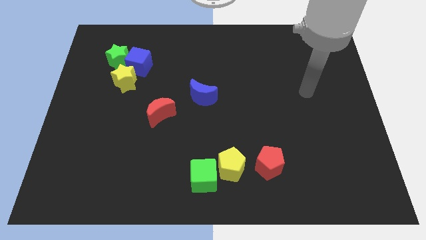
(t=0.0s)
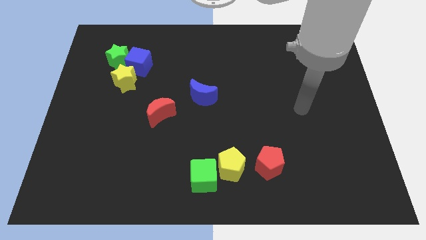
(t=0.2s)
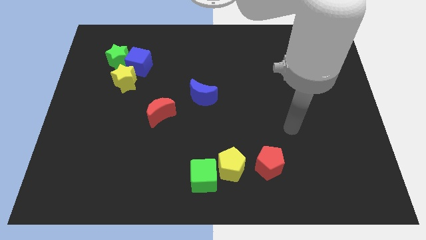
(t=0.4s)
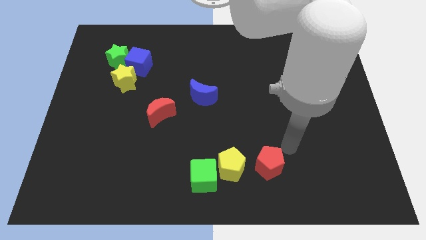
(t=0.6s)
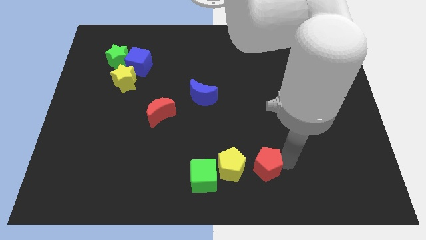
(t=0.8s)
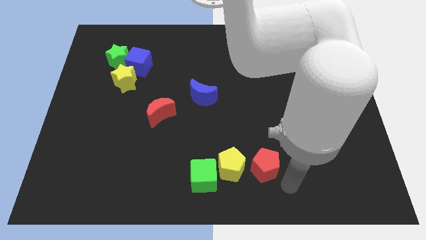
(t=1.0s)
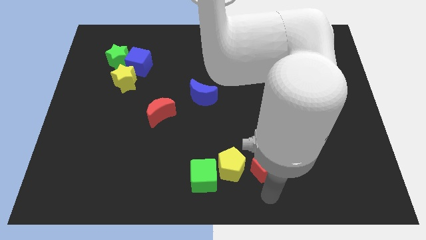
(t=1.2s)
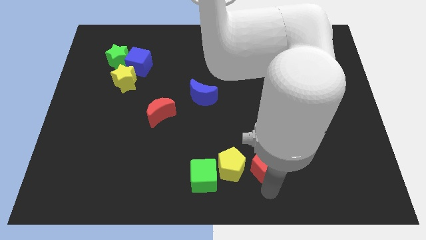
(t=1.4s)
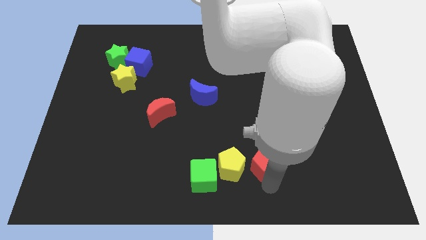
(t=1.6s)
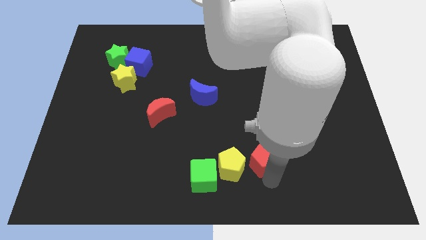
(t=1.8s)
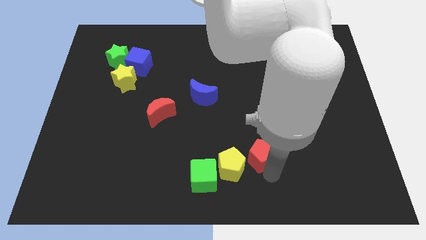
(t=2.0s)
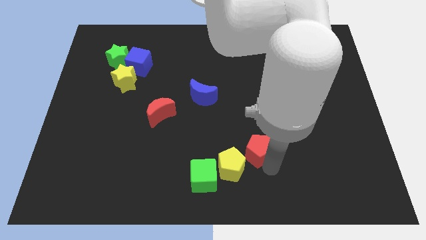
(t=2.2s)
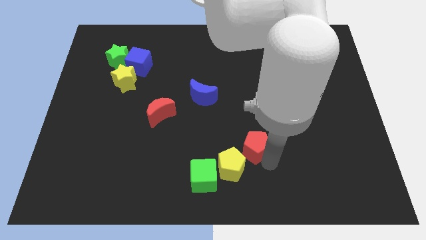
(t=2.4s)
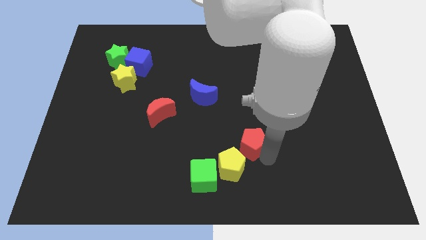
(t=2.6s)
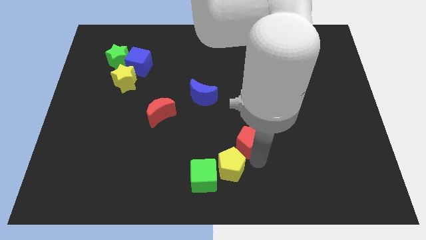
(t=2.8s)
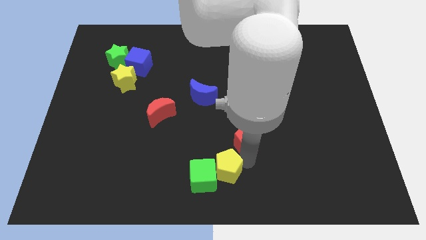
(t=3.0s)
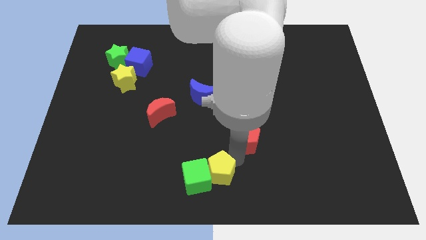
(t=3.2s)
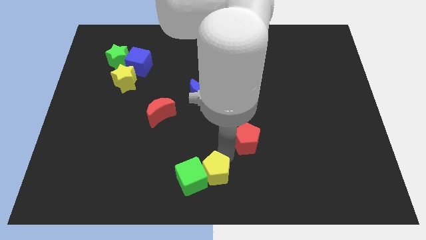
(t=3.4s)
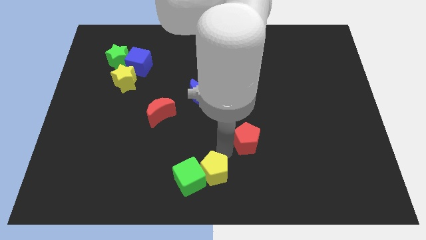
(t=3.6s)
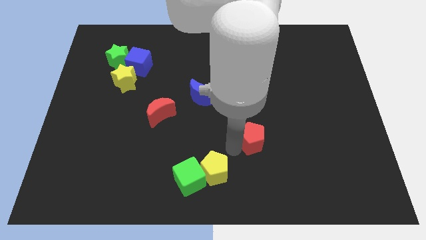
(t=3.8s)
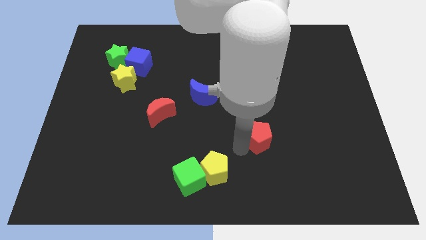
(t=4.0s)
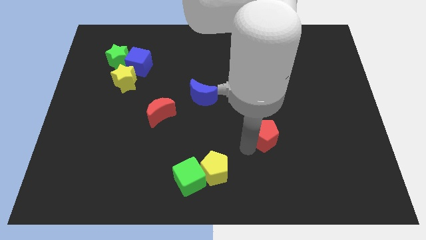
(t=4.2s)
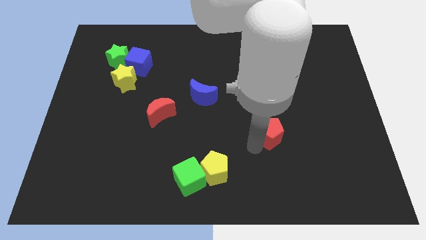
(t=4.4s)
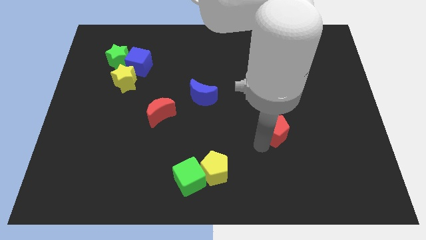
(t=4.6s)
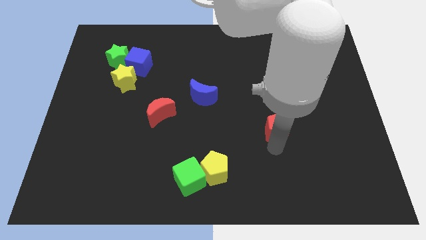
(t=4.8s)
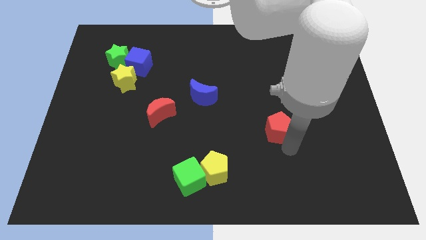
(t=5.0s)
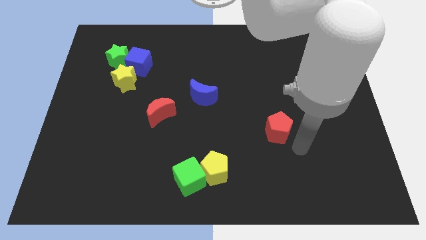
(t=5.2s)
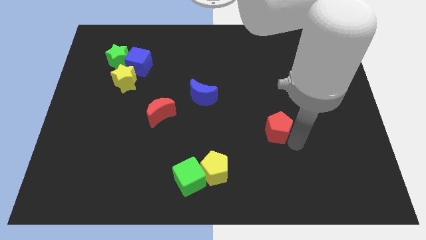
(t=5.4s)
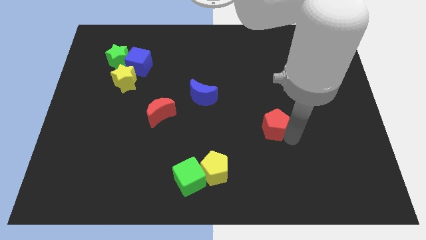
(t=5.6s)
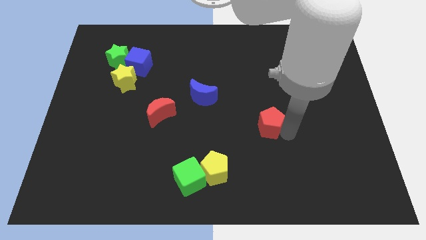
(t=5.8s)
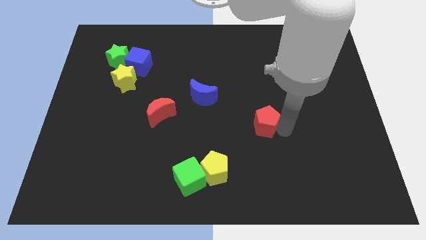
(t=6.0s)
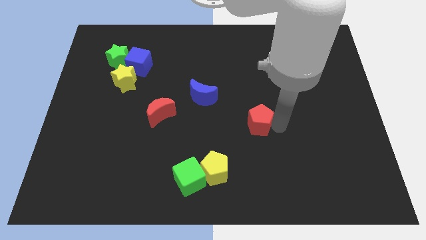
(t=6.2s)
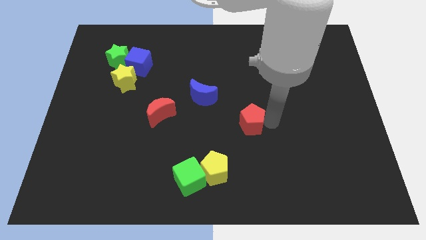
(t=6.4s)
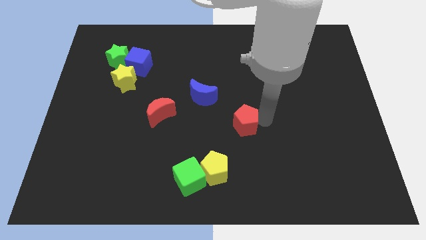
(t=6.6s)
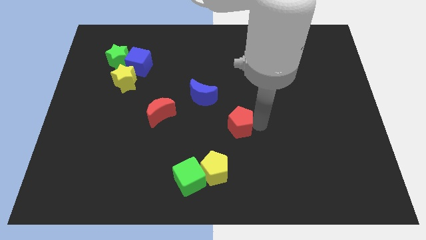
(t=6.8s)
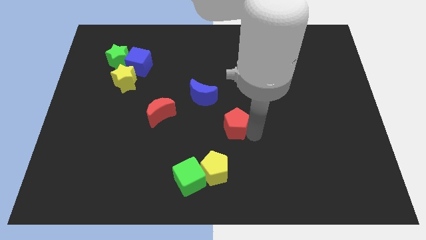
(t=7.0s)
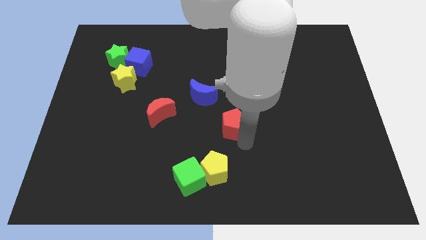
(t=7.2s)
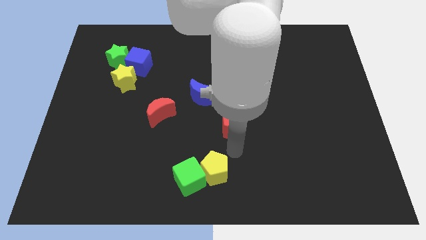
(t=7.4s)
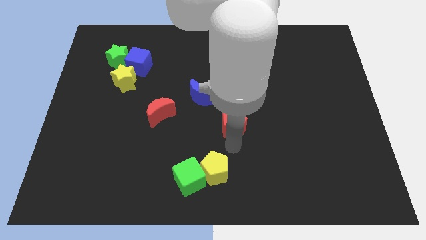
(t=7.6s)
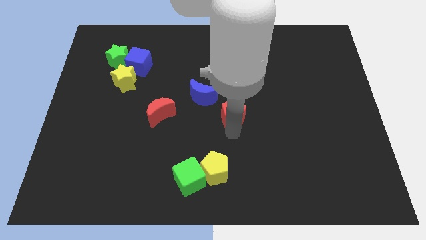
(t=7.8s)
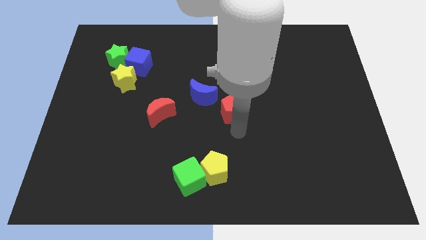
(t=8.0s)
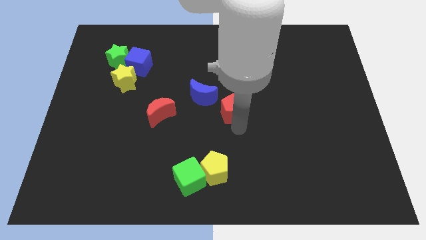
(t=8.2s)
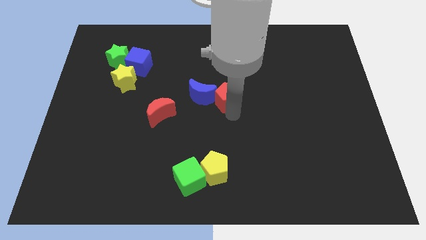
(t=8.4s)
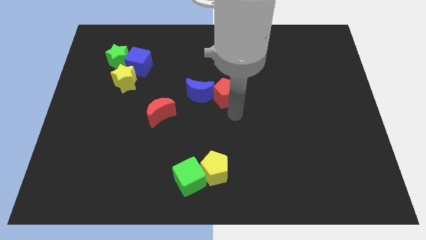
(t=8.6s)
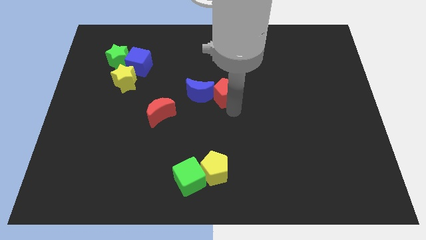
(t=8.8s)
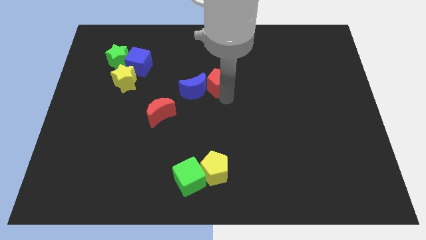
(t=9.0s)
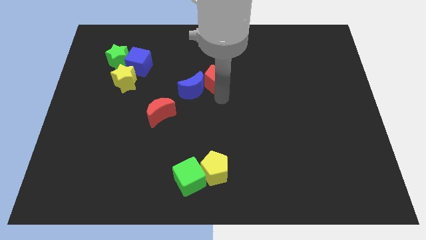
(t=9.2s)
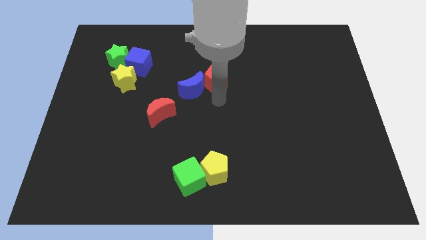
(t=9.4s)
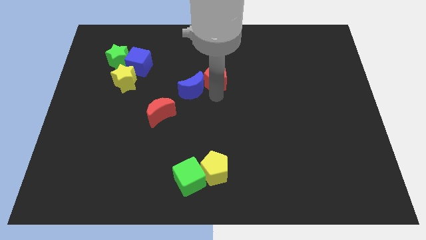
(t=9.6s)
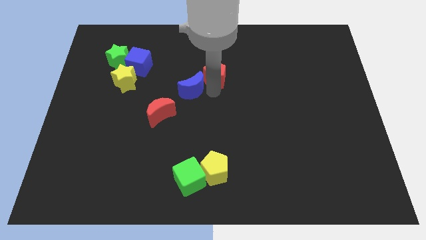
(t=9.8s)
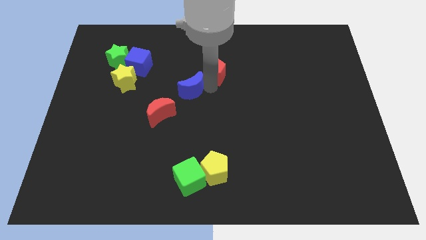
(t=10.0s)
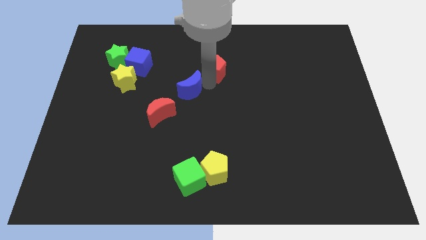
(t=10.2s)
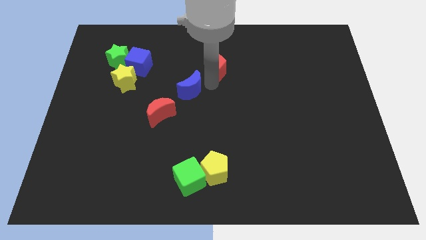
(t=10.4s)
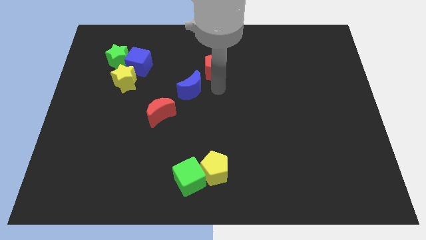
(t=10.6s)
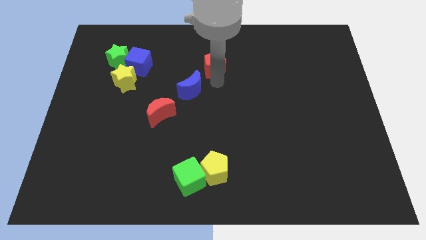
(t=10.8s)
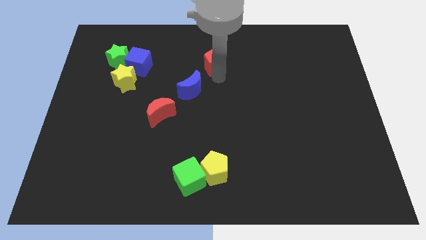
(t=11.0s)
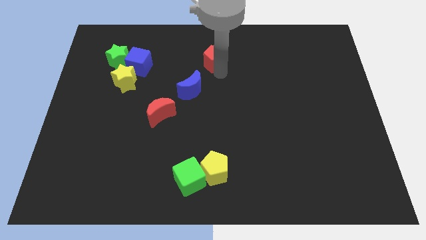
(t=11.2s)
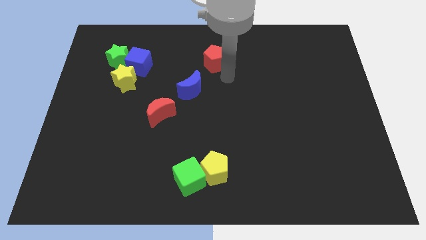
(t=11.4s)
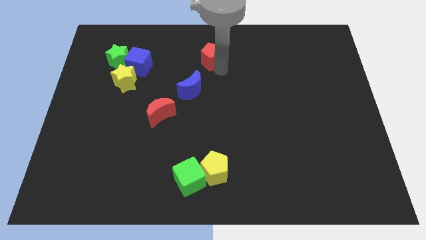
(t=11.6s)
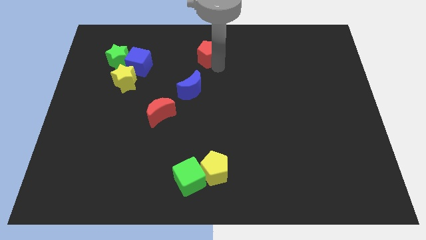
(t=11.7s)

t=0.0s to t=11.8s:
put the red pentagon to the towards your base
